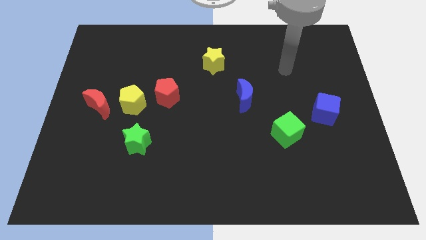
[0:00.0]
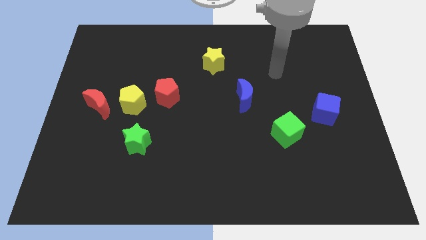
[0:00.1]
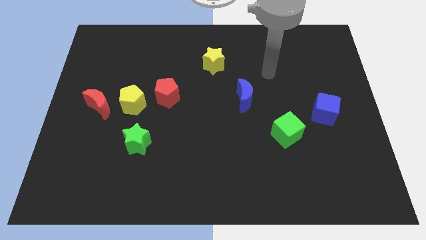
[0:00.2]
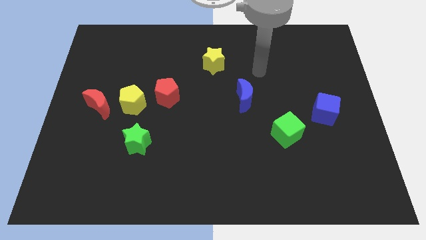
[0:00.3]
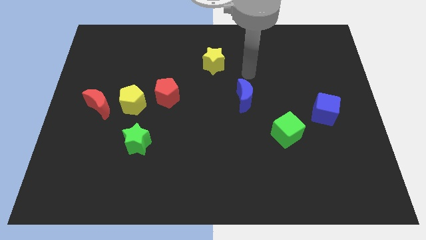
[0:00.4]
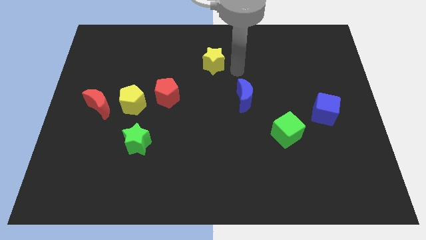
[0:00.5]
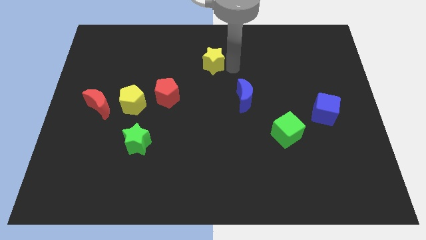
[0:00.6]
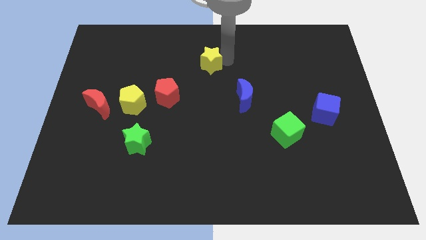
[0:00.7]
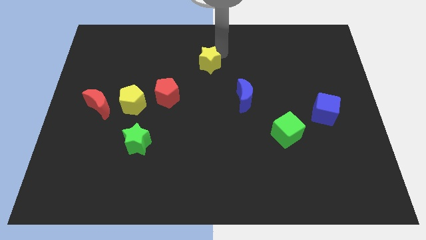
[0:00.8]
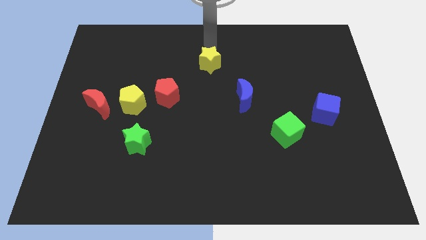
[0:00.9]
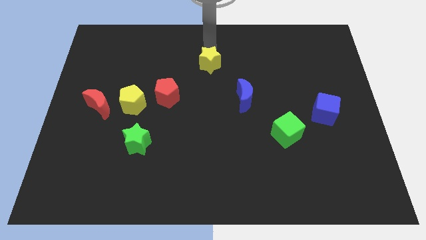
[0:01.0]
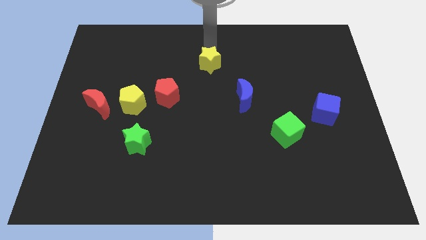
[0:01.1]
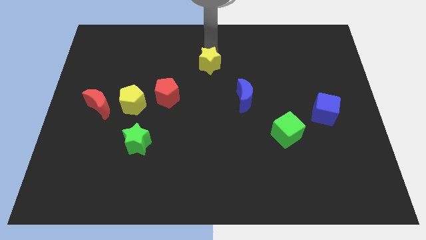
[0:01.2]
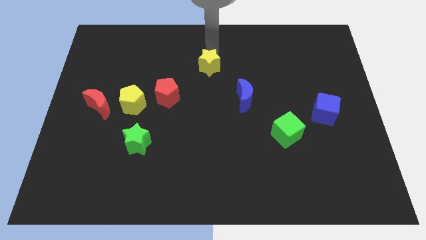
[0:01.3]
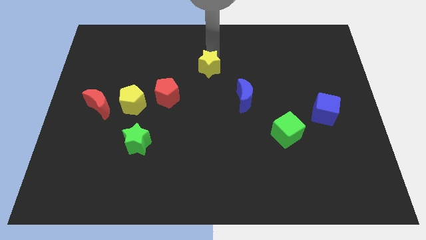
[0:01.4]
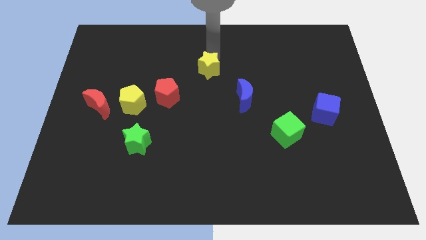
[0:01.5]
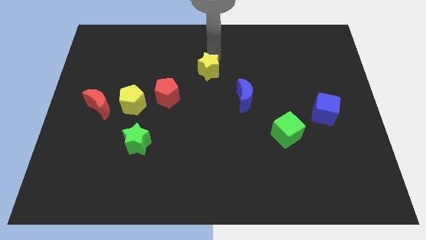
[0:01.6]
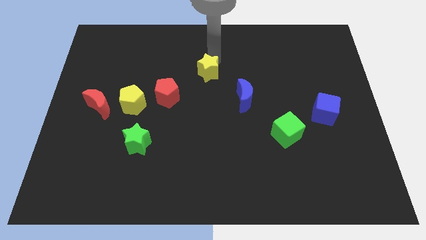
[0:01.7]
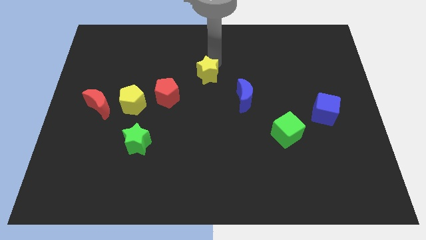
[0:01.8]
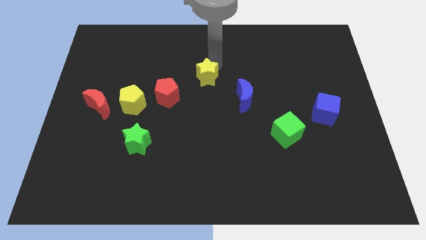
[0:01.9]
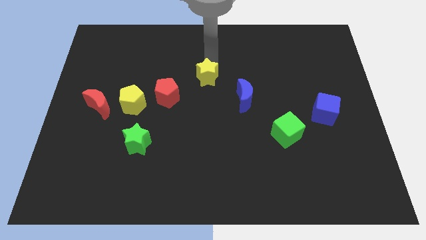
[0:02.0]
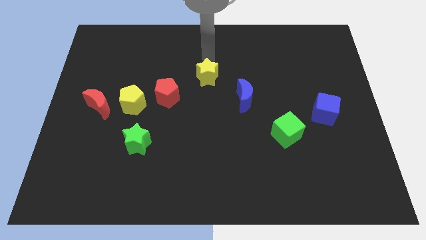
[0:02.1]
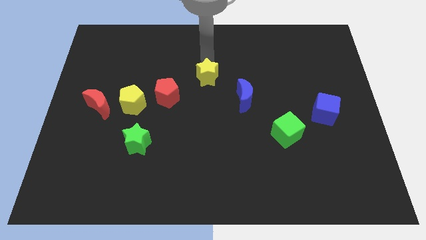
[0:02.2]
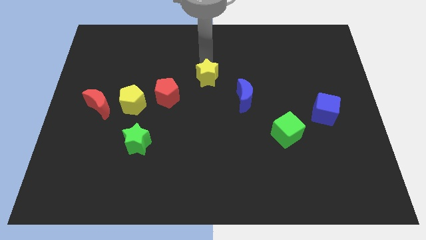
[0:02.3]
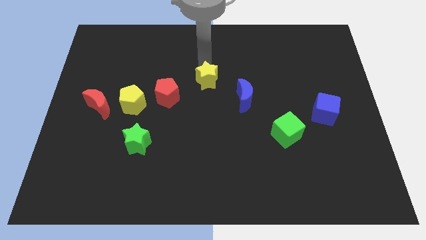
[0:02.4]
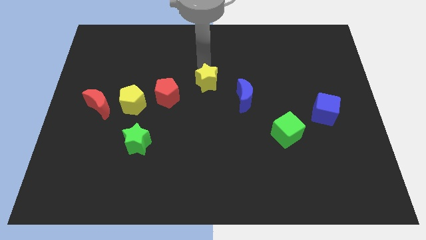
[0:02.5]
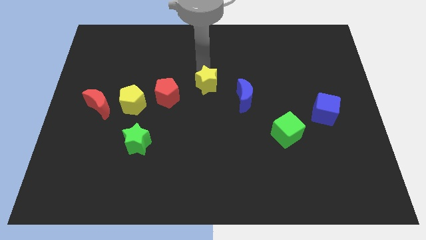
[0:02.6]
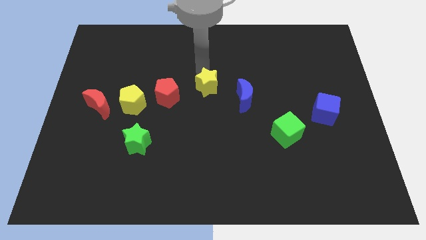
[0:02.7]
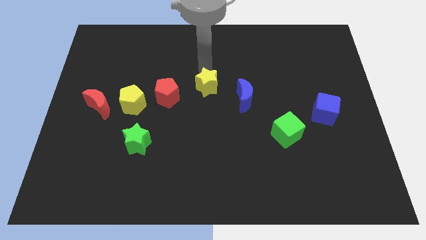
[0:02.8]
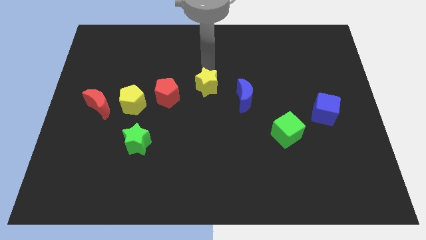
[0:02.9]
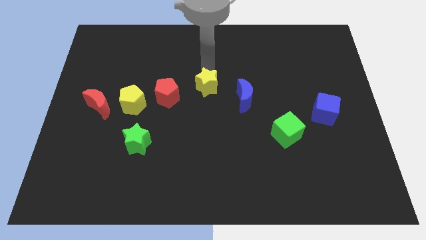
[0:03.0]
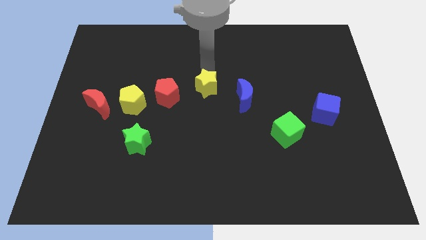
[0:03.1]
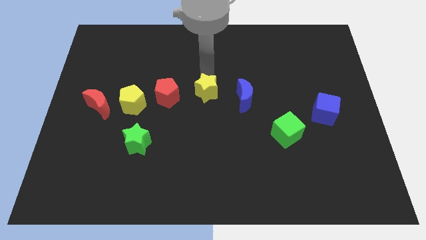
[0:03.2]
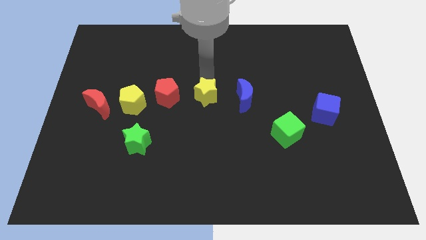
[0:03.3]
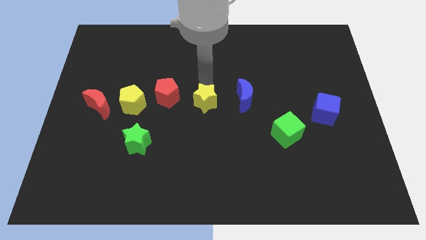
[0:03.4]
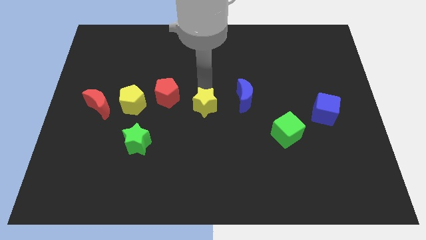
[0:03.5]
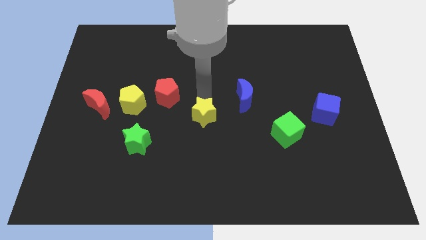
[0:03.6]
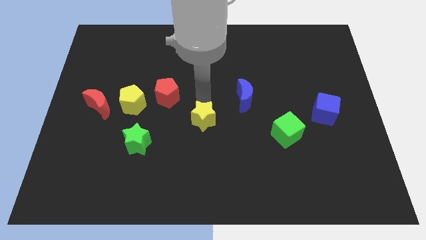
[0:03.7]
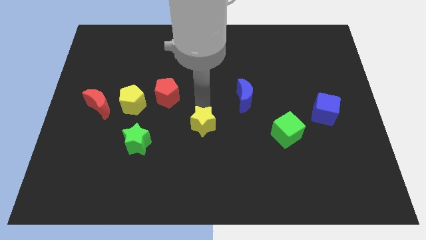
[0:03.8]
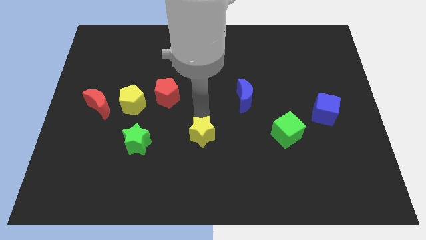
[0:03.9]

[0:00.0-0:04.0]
push the yellow star down

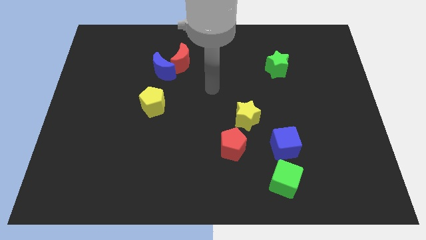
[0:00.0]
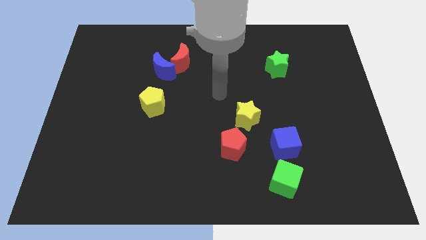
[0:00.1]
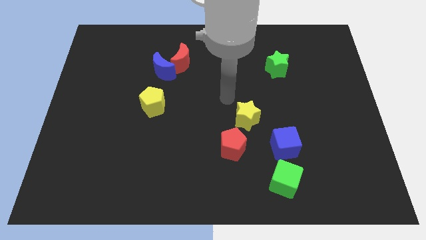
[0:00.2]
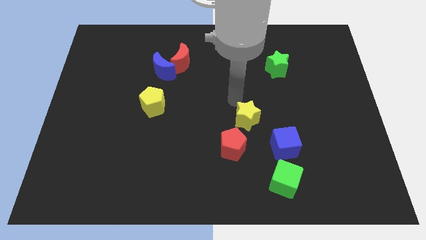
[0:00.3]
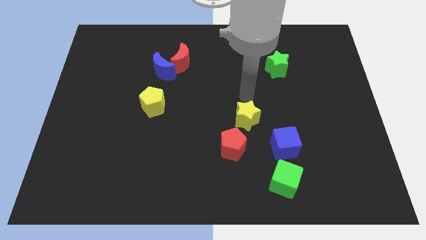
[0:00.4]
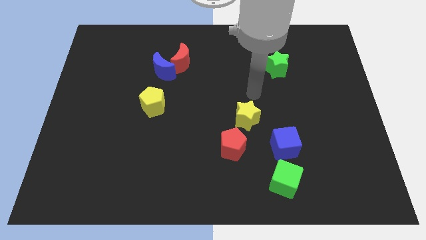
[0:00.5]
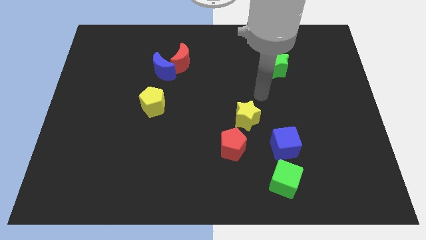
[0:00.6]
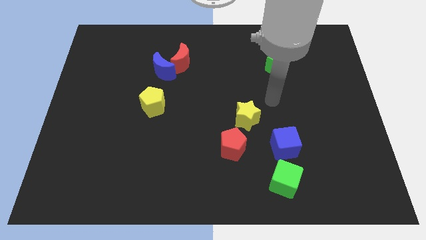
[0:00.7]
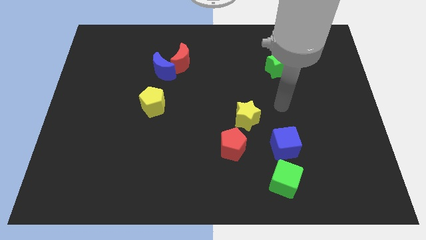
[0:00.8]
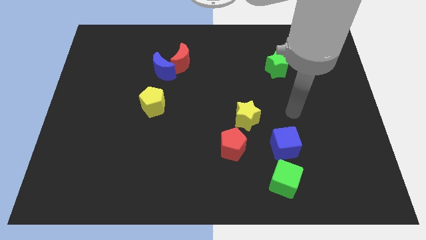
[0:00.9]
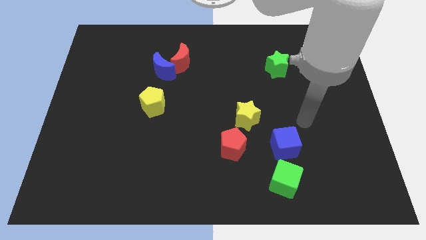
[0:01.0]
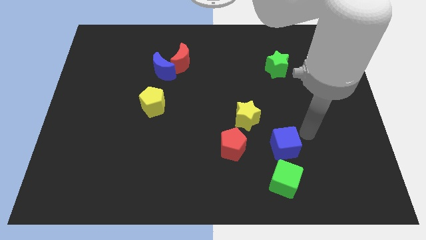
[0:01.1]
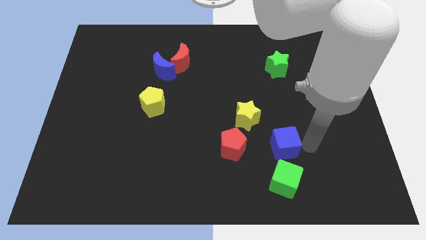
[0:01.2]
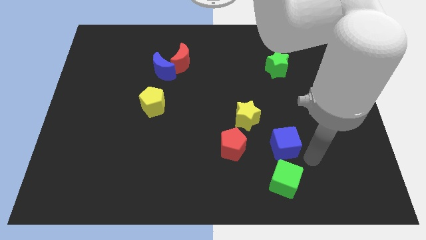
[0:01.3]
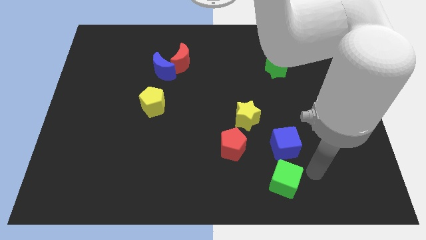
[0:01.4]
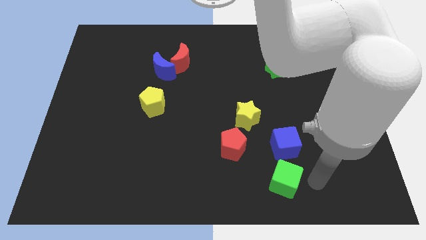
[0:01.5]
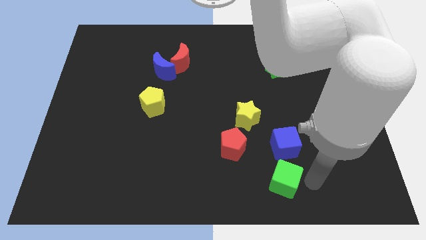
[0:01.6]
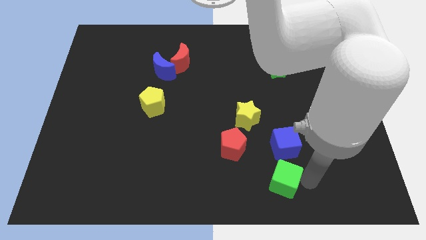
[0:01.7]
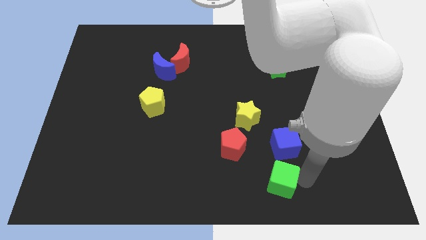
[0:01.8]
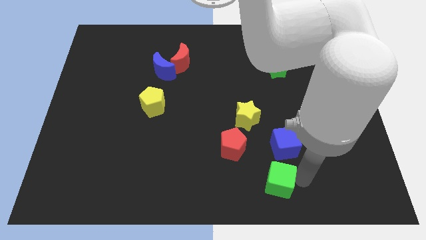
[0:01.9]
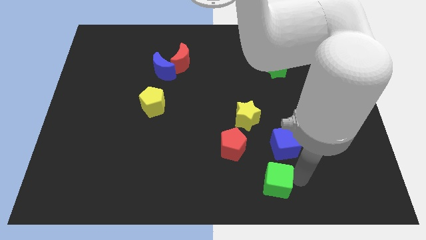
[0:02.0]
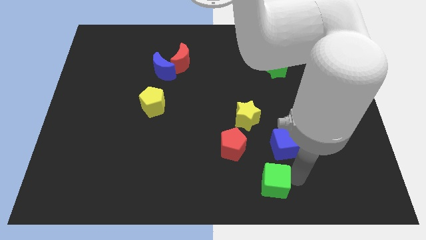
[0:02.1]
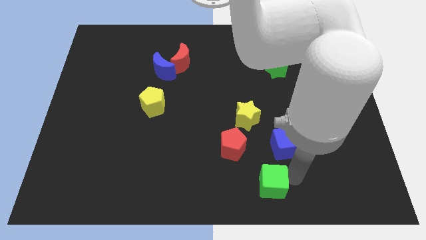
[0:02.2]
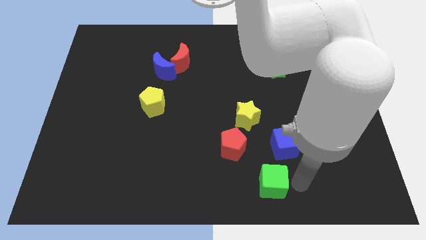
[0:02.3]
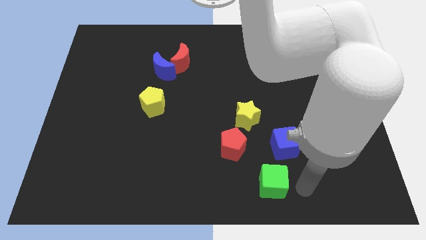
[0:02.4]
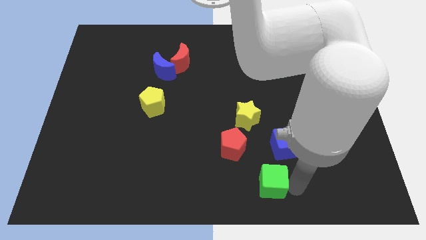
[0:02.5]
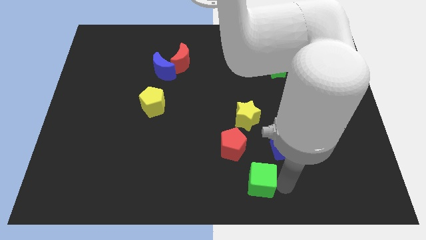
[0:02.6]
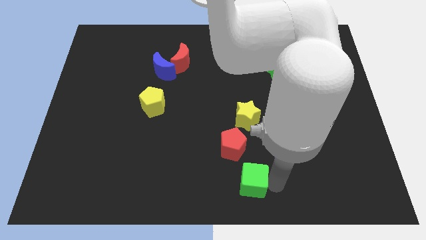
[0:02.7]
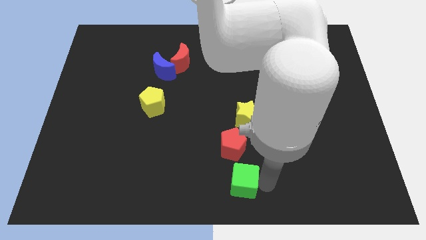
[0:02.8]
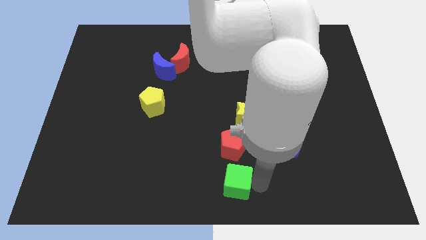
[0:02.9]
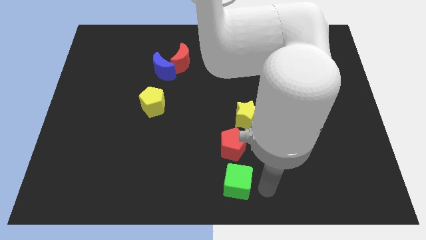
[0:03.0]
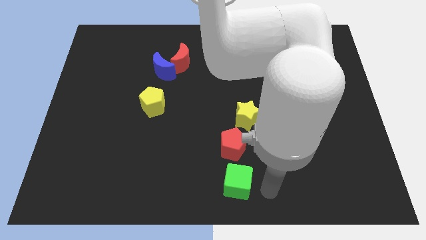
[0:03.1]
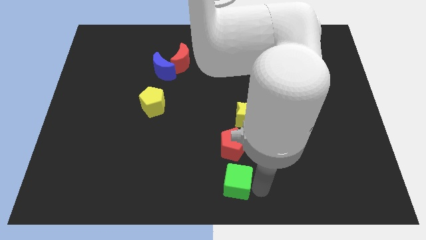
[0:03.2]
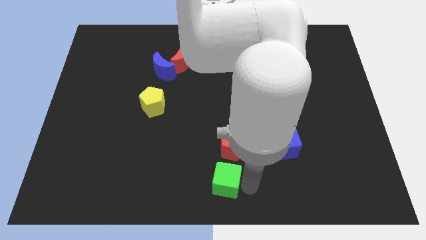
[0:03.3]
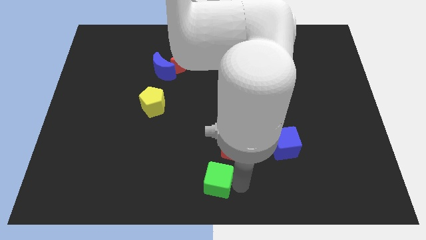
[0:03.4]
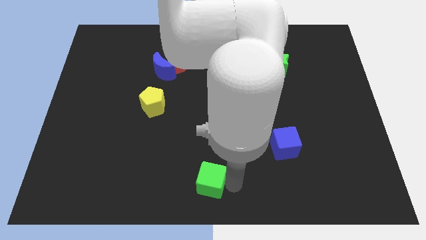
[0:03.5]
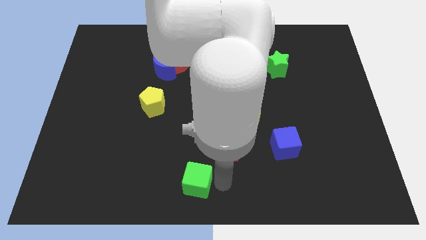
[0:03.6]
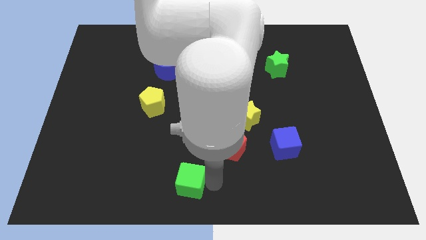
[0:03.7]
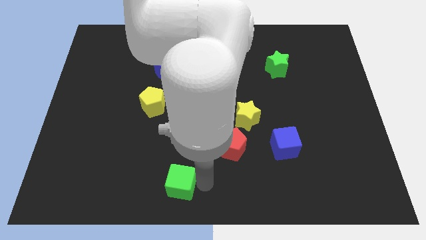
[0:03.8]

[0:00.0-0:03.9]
push the green cube to the left

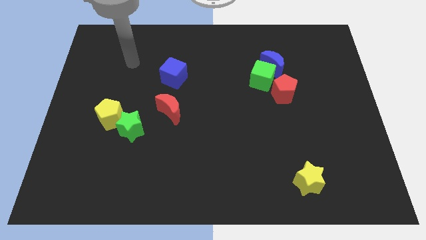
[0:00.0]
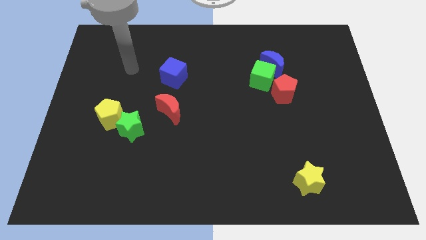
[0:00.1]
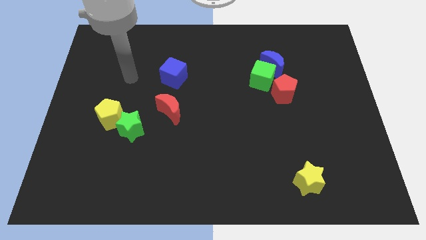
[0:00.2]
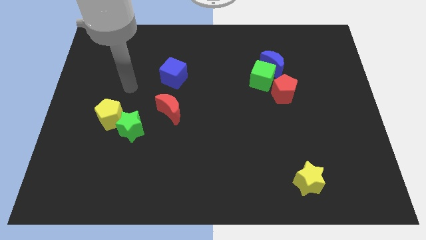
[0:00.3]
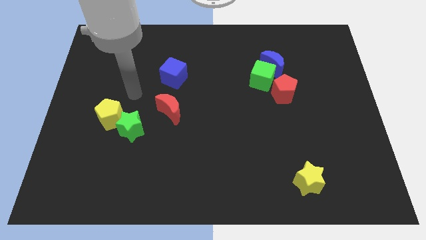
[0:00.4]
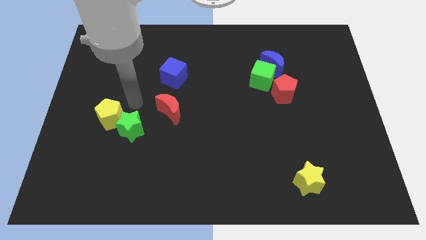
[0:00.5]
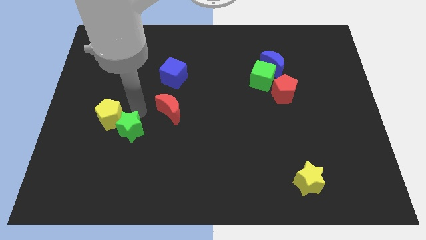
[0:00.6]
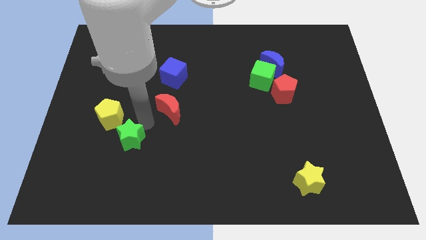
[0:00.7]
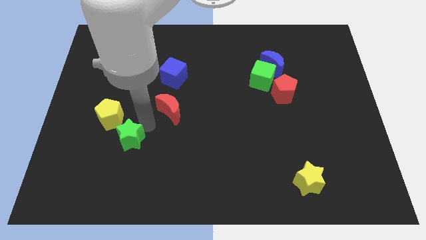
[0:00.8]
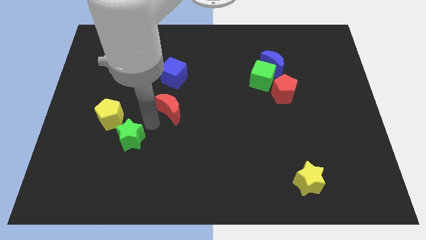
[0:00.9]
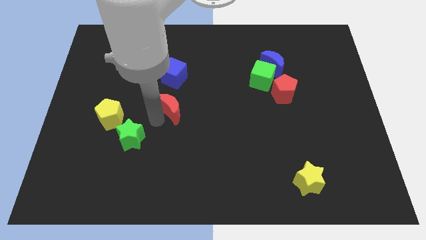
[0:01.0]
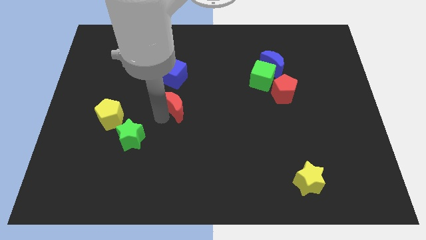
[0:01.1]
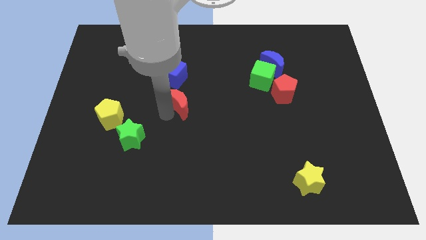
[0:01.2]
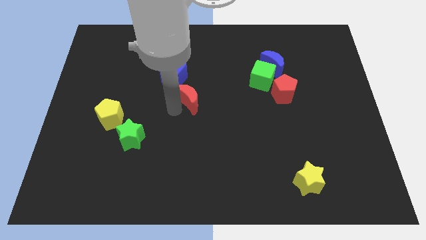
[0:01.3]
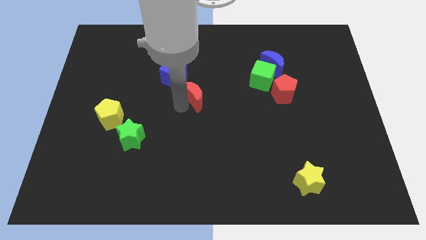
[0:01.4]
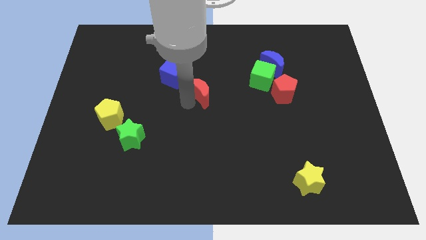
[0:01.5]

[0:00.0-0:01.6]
move the red moon up and right diagonally a little bit
